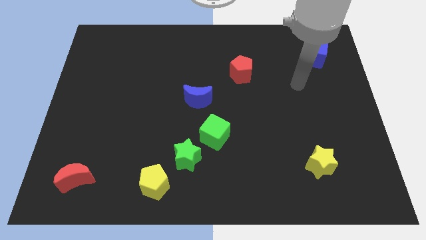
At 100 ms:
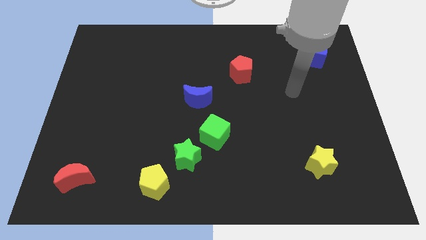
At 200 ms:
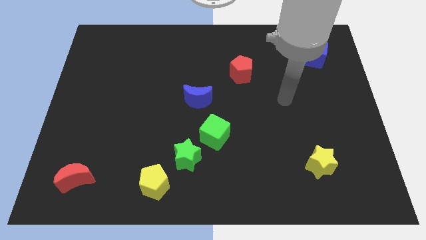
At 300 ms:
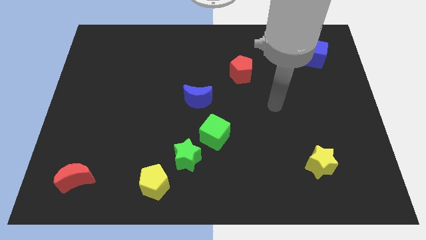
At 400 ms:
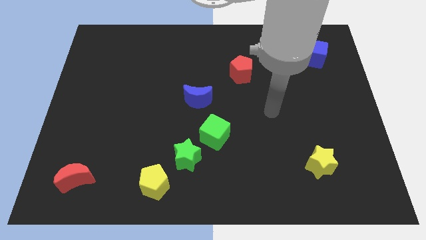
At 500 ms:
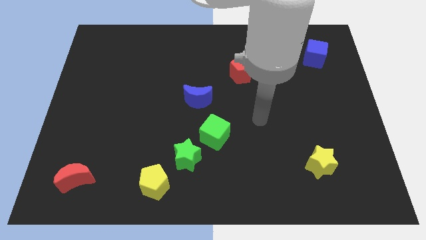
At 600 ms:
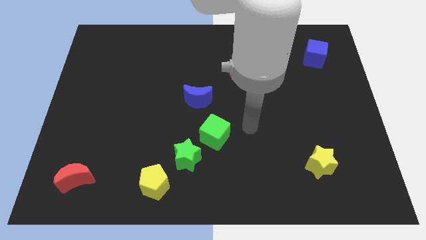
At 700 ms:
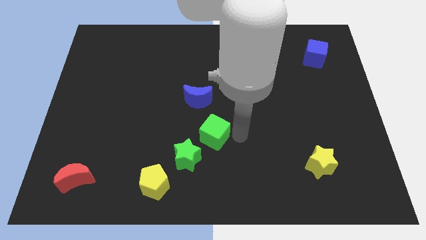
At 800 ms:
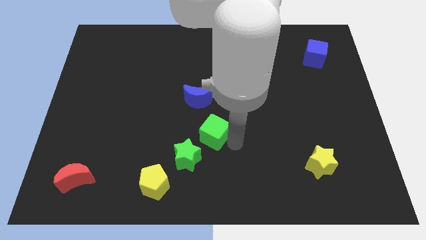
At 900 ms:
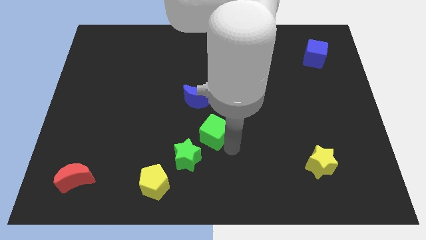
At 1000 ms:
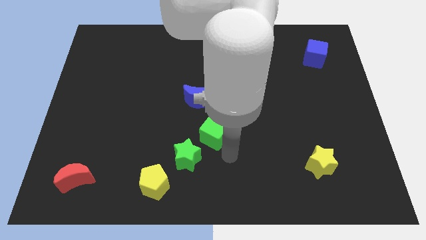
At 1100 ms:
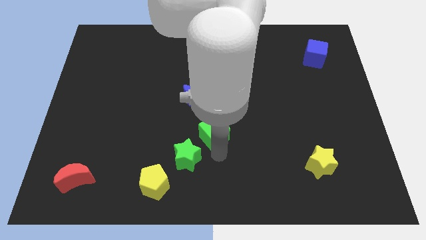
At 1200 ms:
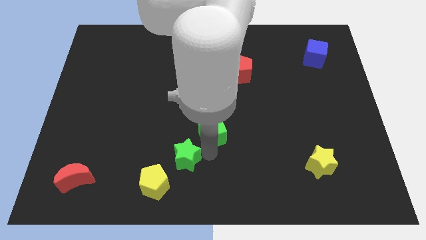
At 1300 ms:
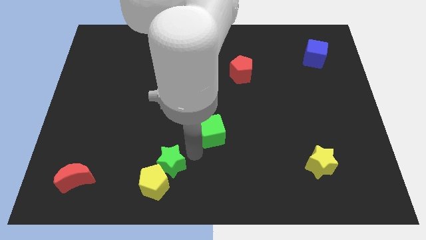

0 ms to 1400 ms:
move the green cube away from the green star

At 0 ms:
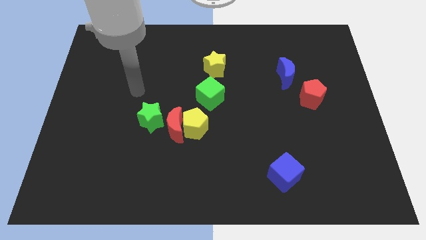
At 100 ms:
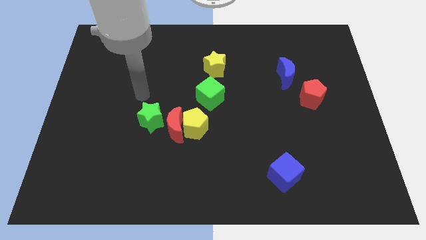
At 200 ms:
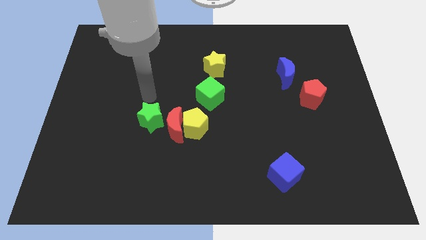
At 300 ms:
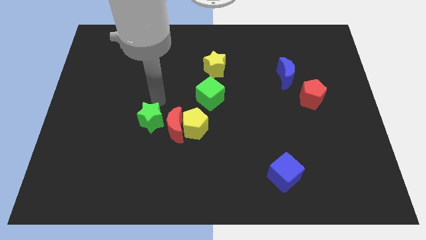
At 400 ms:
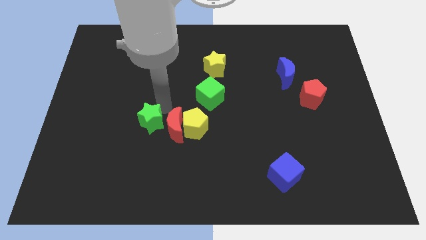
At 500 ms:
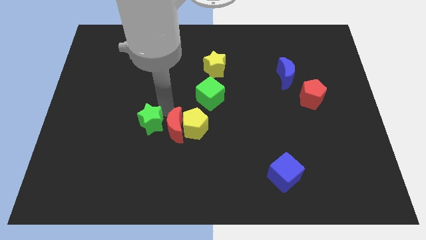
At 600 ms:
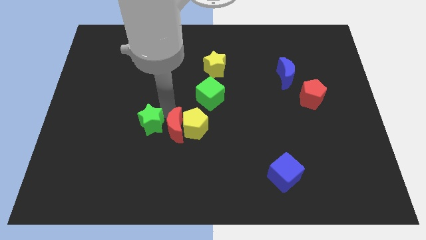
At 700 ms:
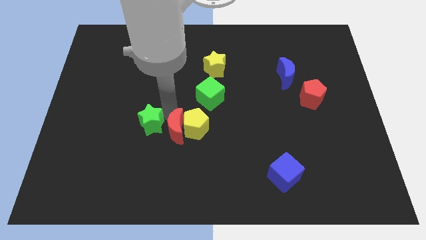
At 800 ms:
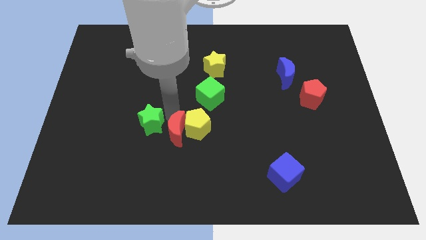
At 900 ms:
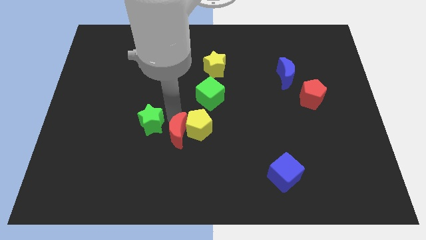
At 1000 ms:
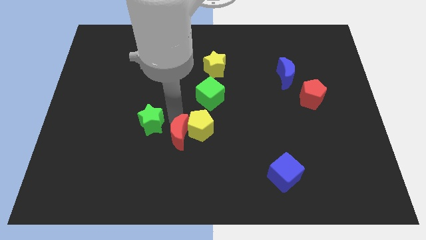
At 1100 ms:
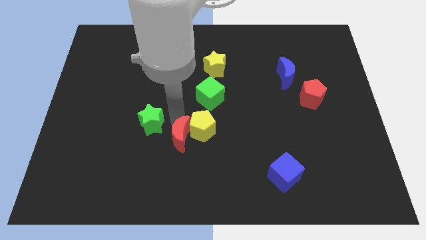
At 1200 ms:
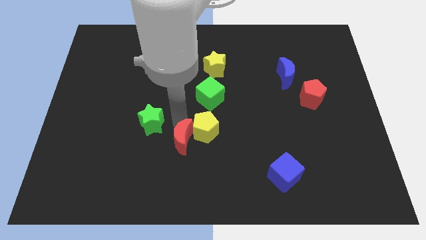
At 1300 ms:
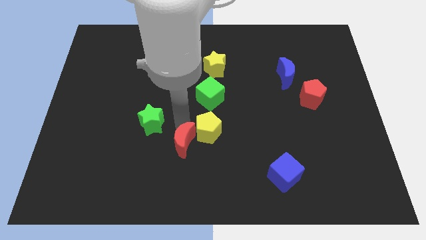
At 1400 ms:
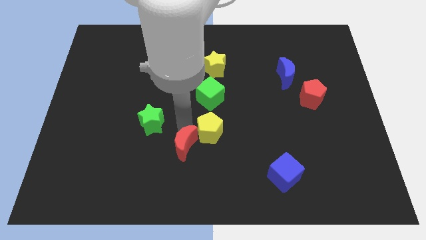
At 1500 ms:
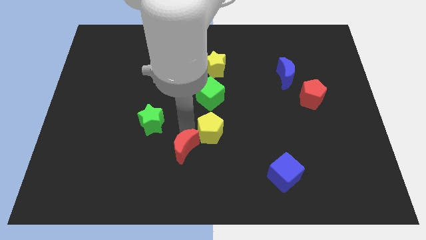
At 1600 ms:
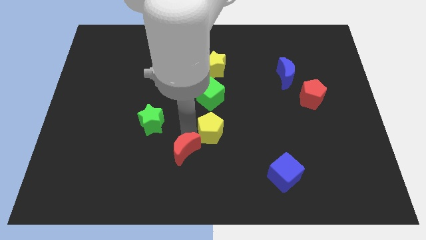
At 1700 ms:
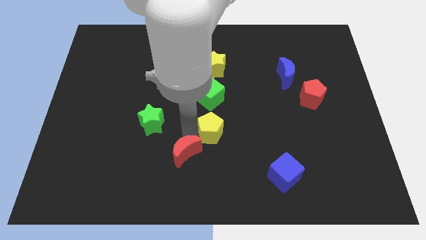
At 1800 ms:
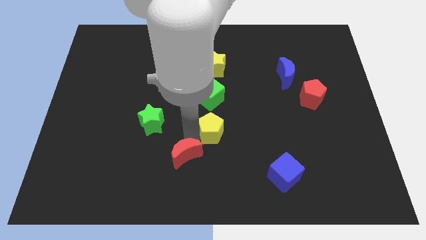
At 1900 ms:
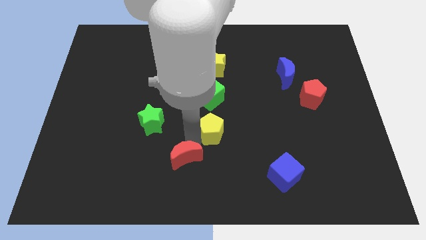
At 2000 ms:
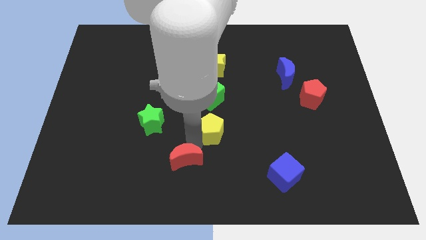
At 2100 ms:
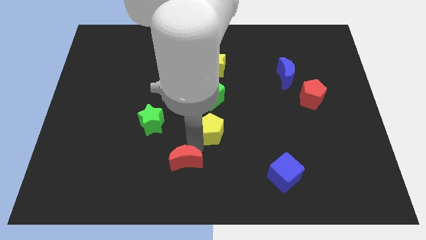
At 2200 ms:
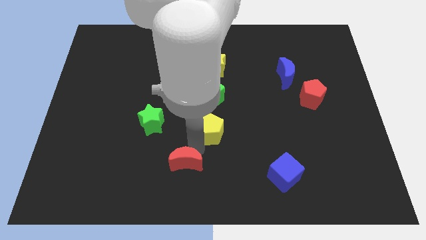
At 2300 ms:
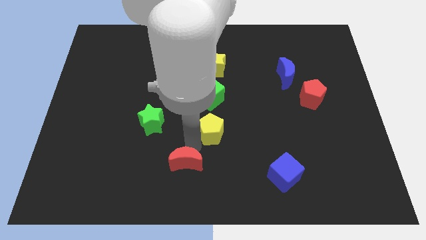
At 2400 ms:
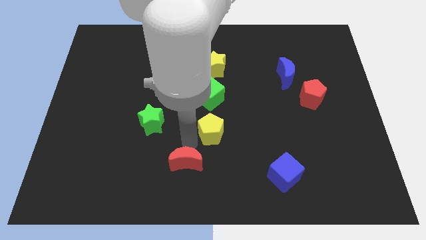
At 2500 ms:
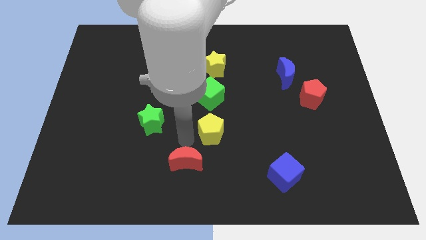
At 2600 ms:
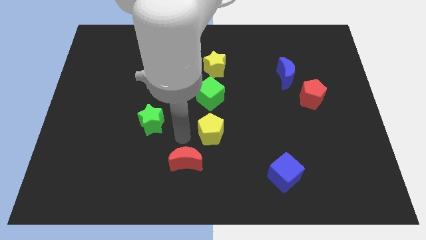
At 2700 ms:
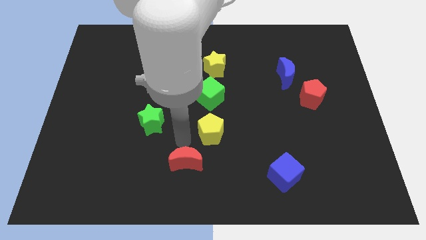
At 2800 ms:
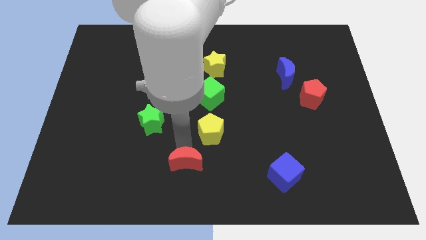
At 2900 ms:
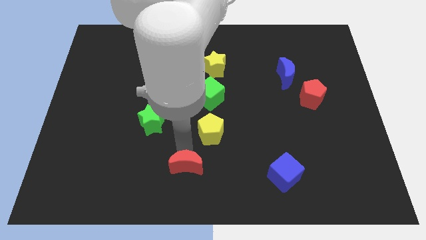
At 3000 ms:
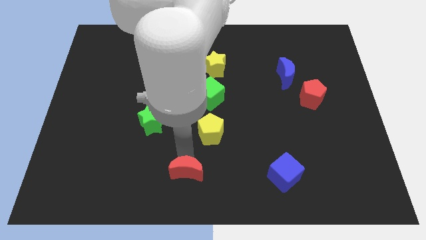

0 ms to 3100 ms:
pull the red moon apart from the yellow pentagon and green star

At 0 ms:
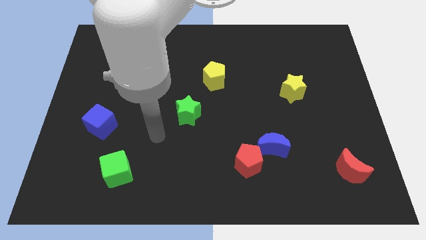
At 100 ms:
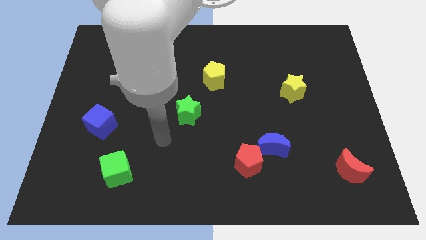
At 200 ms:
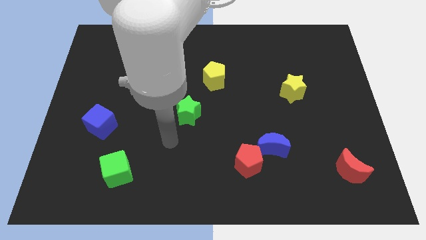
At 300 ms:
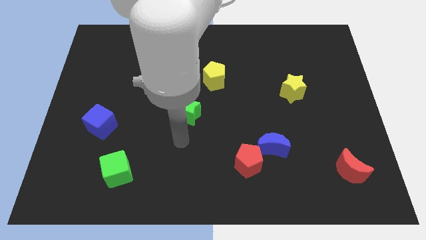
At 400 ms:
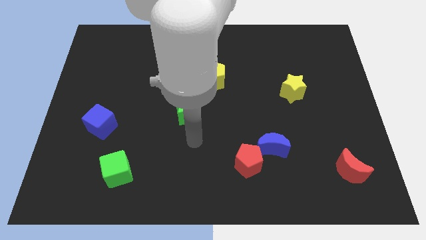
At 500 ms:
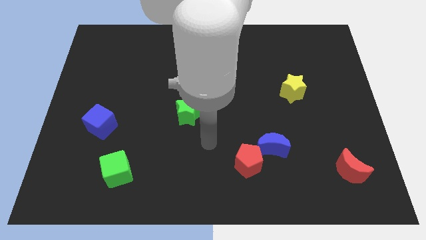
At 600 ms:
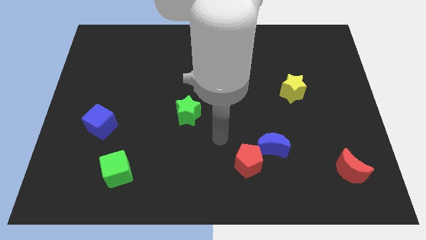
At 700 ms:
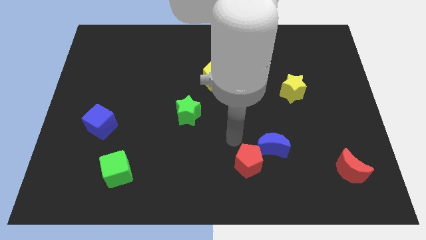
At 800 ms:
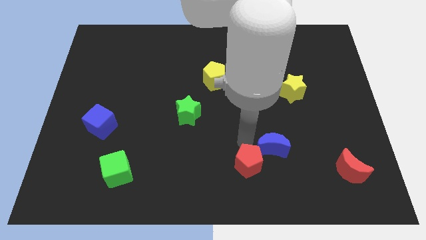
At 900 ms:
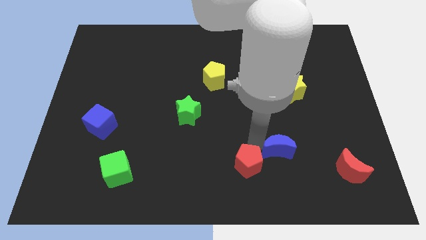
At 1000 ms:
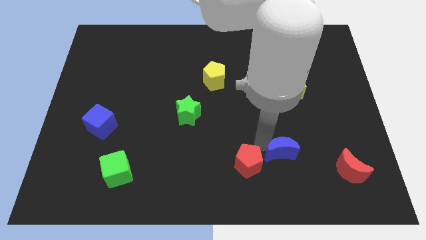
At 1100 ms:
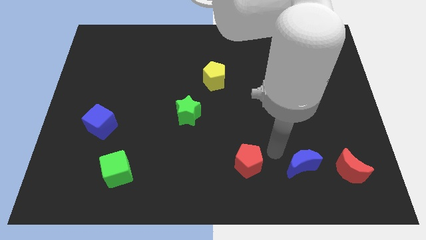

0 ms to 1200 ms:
move the red pentagon away from the blue moon

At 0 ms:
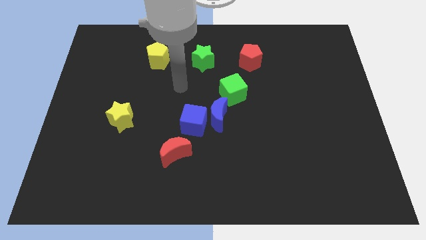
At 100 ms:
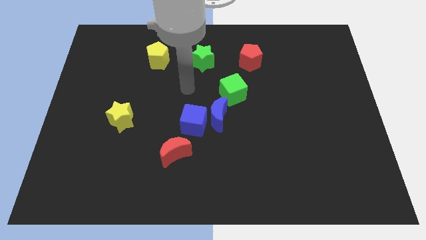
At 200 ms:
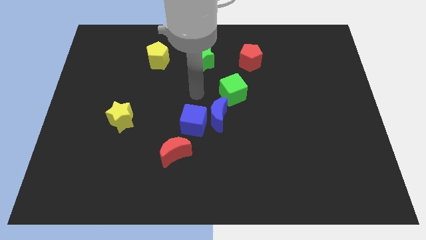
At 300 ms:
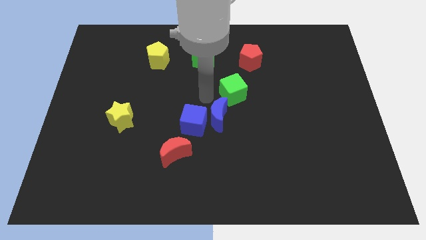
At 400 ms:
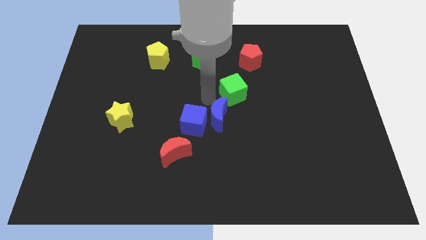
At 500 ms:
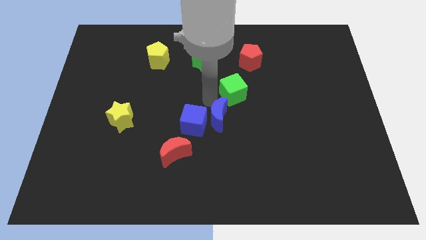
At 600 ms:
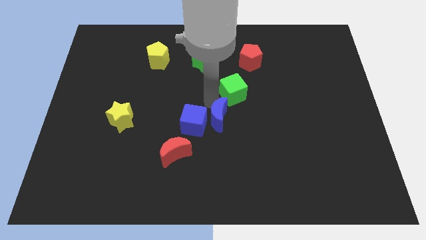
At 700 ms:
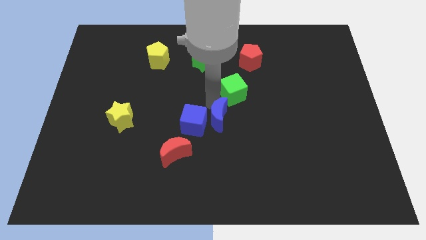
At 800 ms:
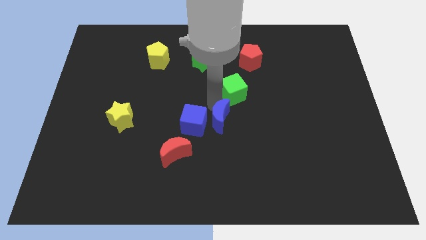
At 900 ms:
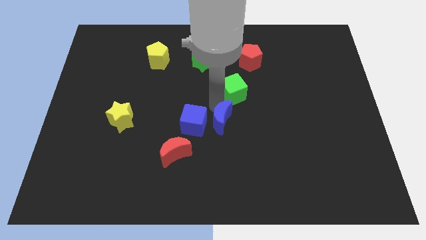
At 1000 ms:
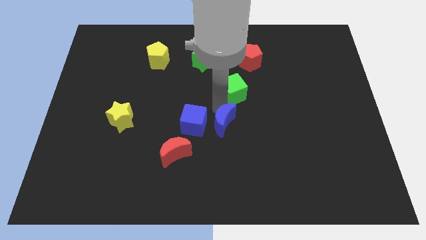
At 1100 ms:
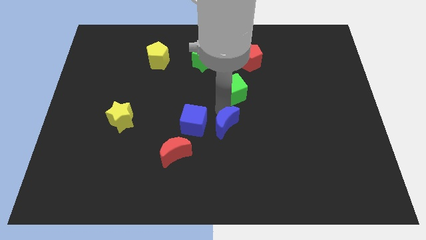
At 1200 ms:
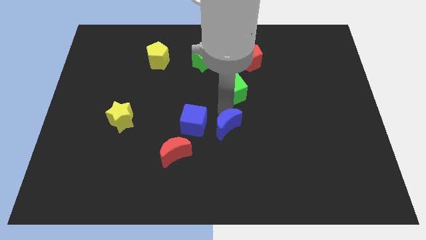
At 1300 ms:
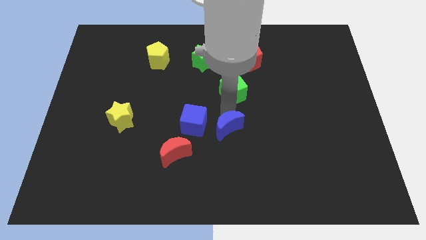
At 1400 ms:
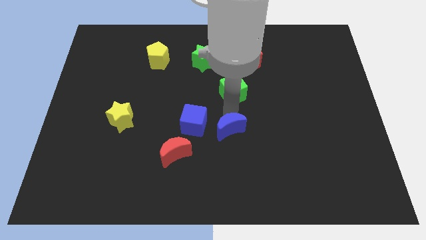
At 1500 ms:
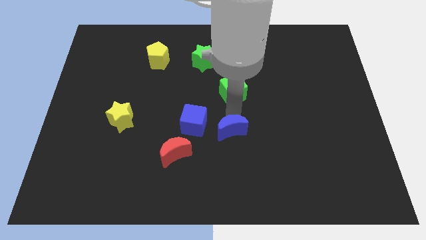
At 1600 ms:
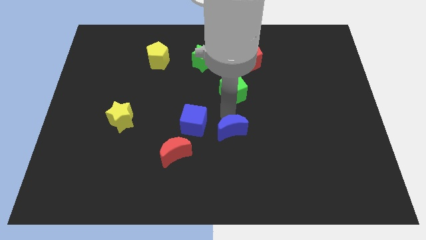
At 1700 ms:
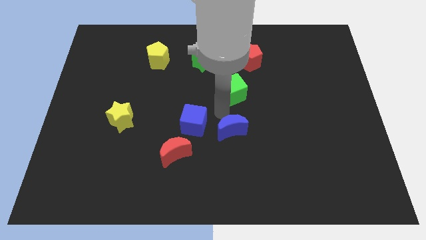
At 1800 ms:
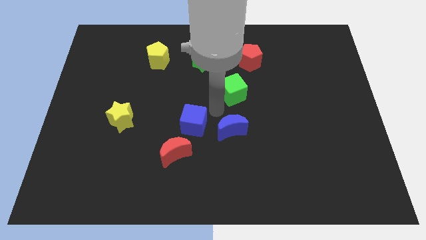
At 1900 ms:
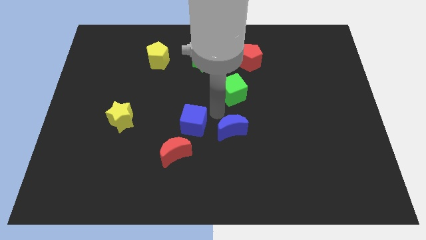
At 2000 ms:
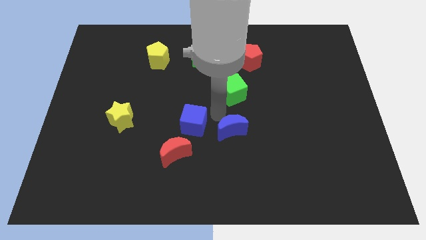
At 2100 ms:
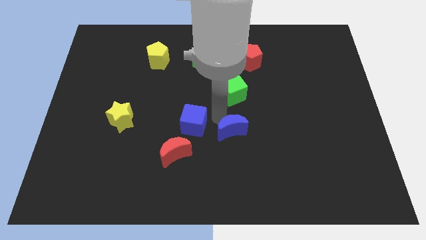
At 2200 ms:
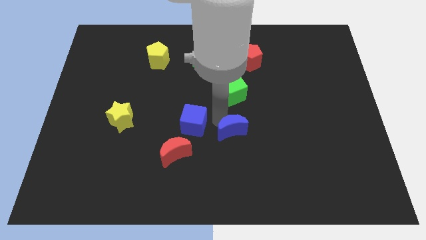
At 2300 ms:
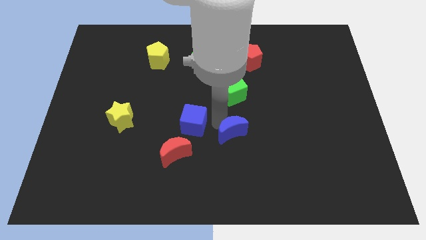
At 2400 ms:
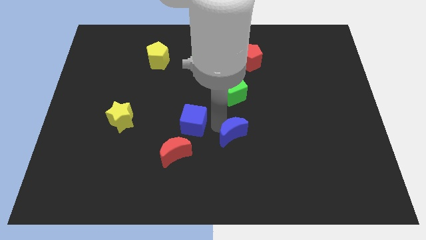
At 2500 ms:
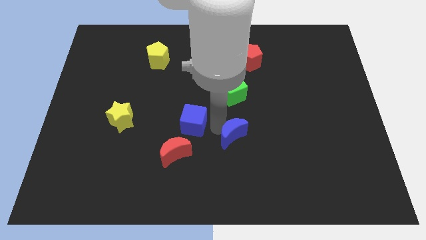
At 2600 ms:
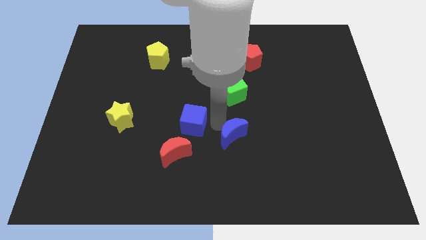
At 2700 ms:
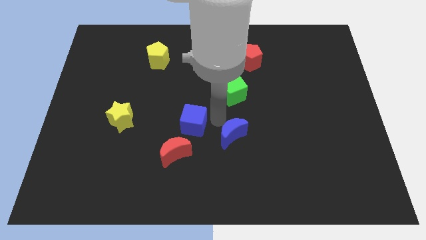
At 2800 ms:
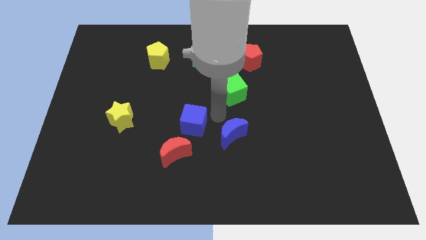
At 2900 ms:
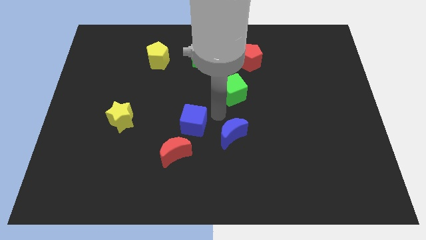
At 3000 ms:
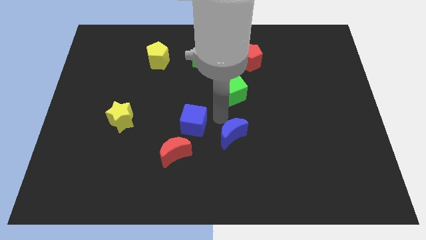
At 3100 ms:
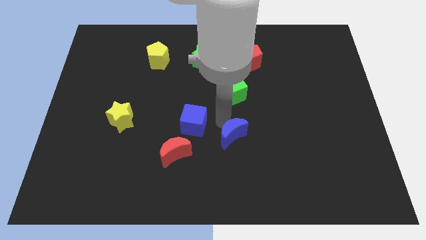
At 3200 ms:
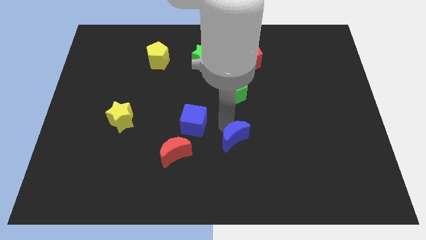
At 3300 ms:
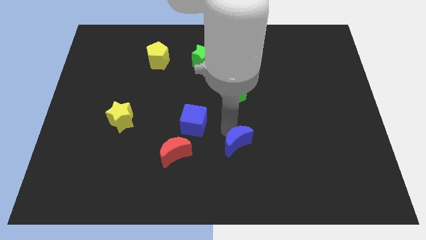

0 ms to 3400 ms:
pull the blue moon apart from the blue cube and green cube

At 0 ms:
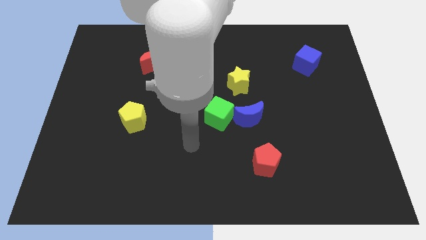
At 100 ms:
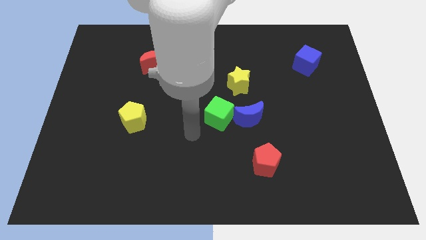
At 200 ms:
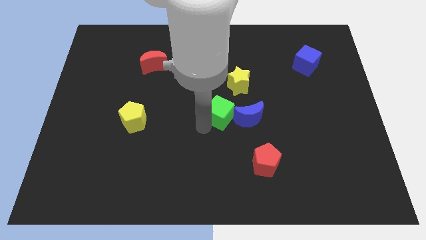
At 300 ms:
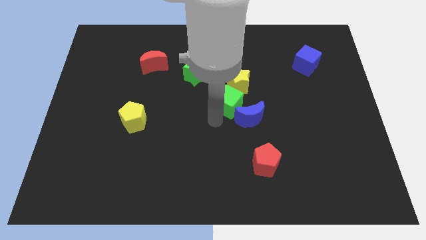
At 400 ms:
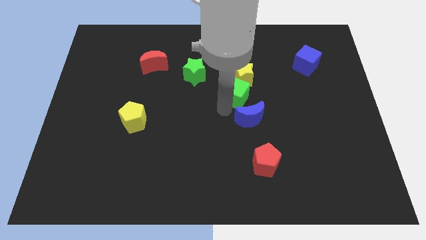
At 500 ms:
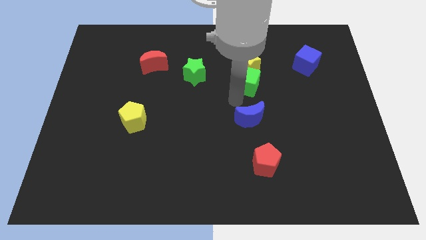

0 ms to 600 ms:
separate the blue moon from the green cube
